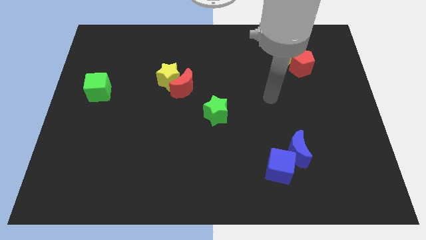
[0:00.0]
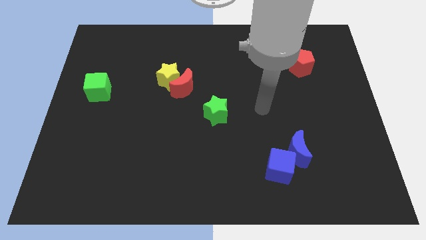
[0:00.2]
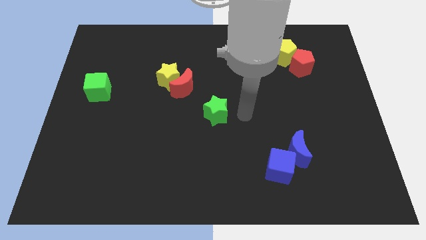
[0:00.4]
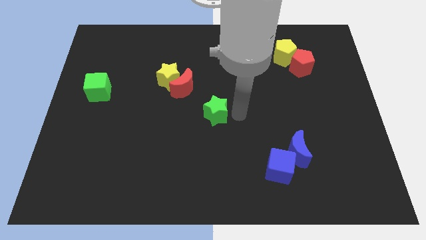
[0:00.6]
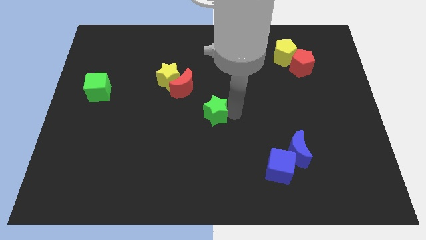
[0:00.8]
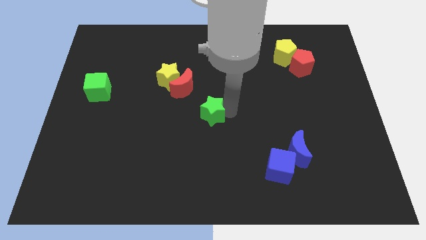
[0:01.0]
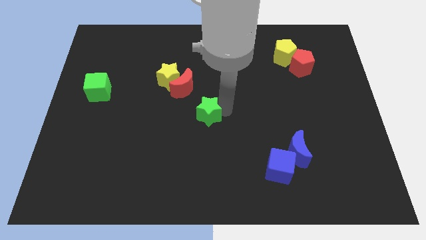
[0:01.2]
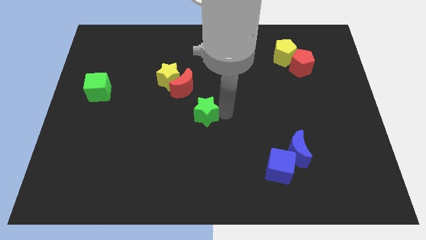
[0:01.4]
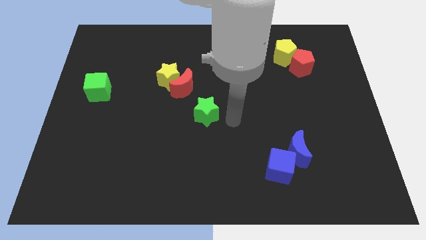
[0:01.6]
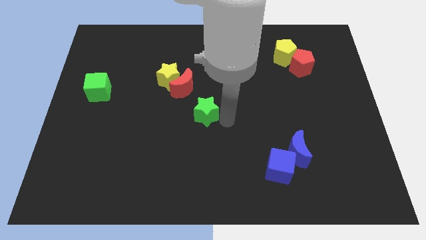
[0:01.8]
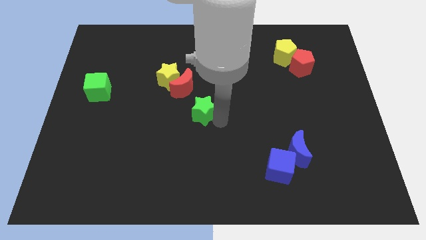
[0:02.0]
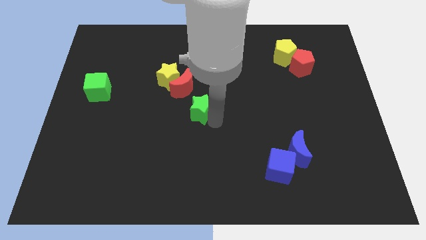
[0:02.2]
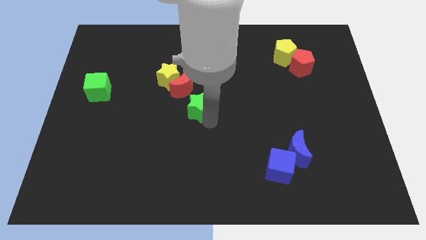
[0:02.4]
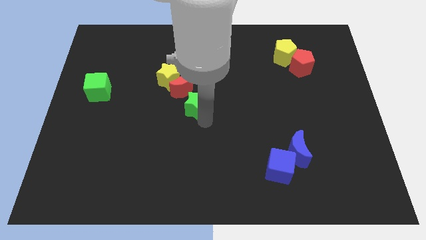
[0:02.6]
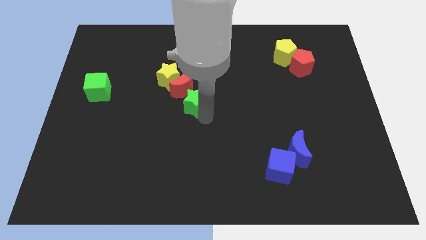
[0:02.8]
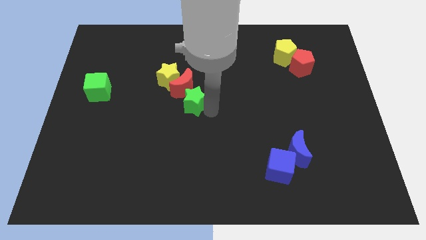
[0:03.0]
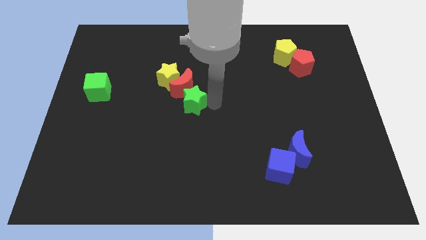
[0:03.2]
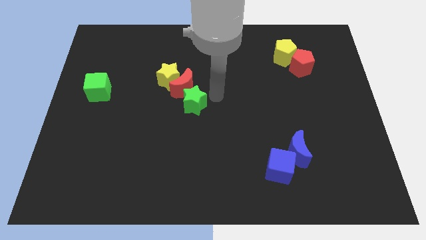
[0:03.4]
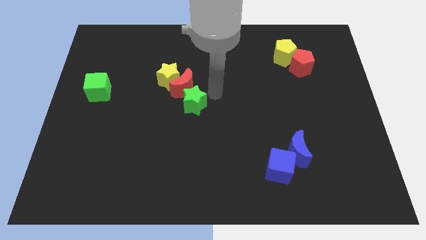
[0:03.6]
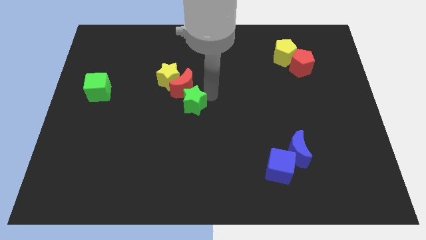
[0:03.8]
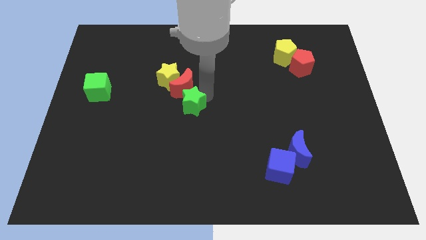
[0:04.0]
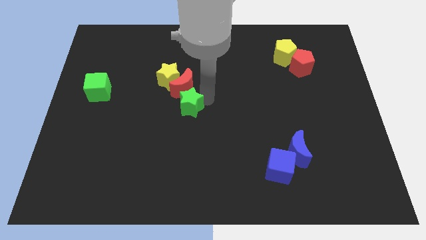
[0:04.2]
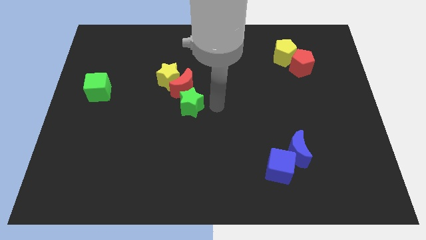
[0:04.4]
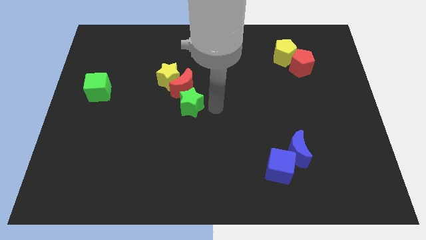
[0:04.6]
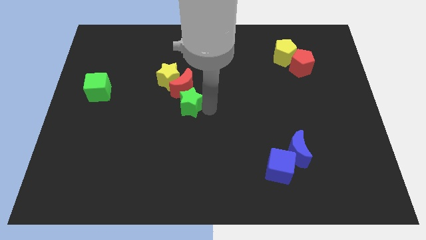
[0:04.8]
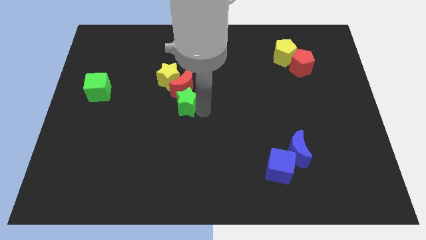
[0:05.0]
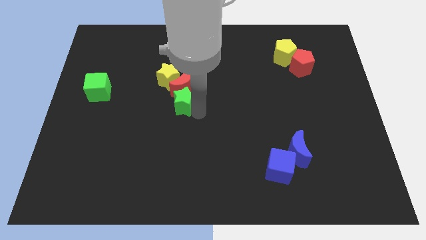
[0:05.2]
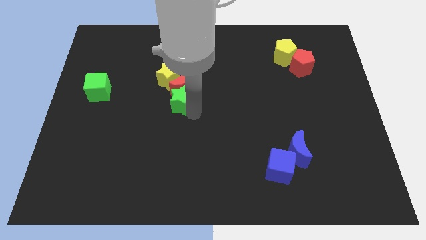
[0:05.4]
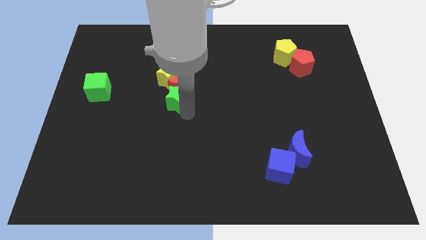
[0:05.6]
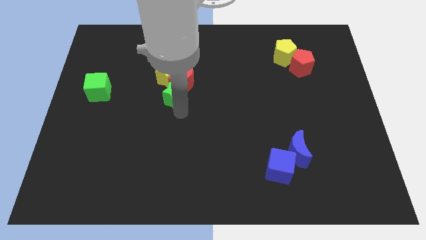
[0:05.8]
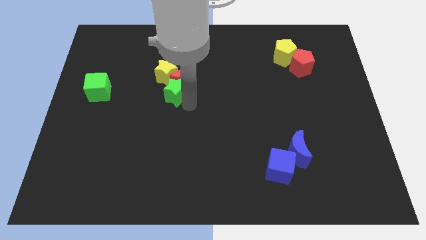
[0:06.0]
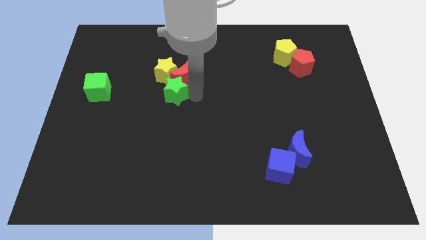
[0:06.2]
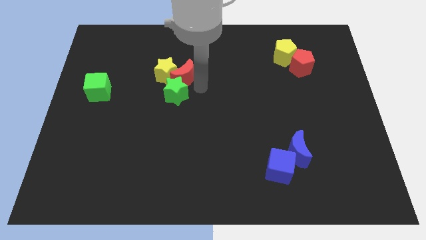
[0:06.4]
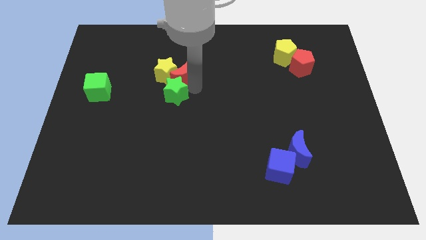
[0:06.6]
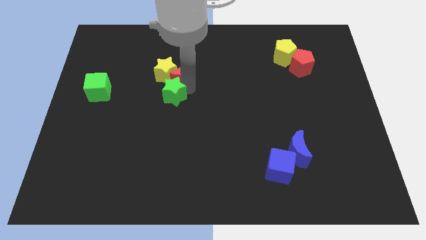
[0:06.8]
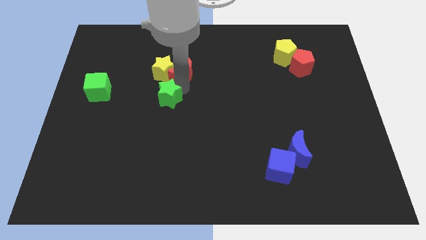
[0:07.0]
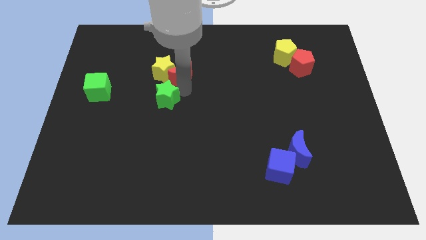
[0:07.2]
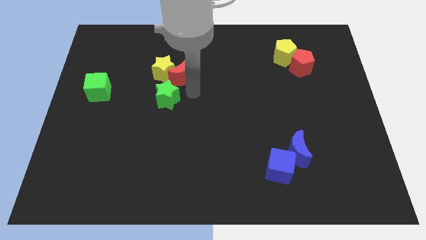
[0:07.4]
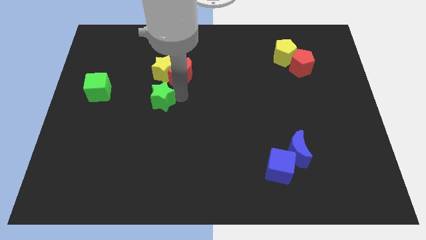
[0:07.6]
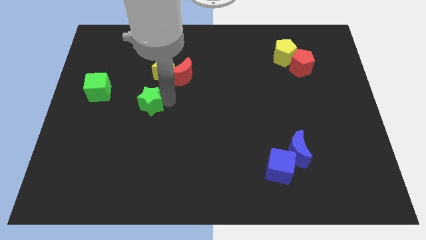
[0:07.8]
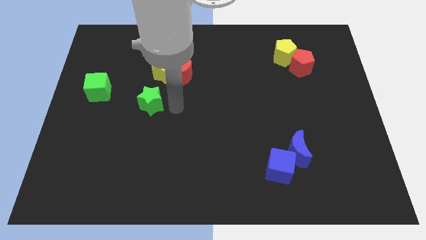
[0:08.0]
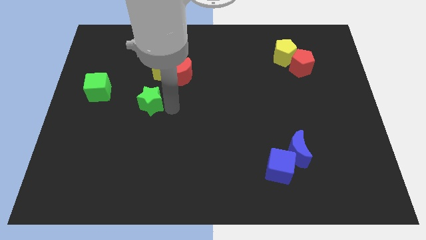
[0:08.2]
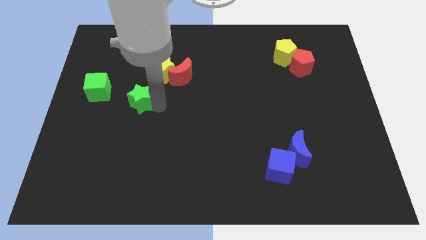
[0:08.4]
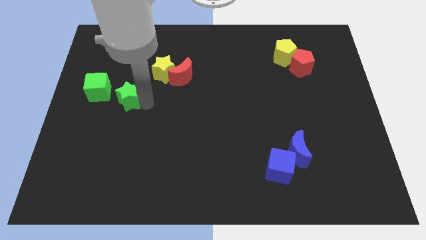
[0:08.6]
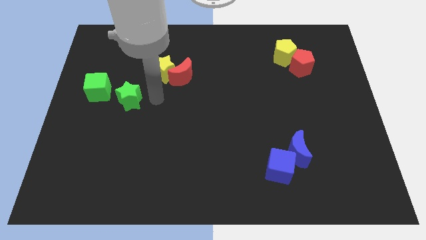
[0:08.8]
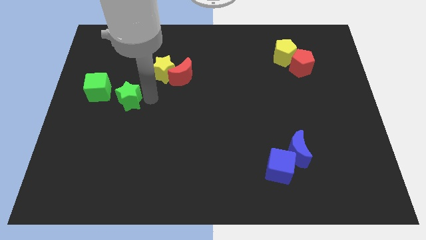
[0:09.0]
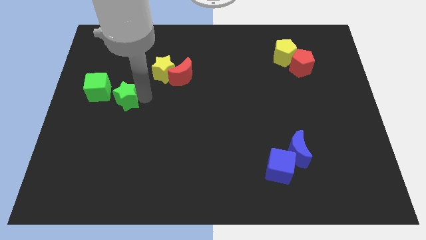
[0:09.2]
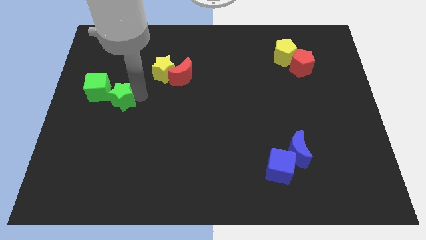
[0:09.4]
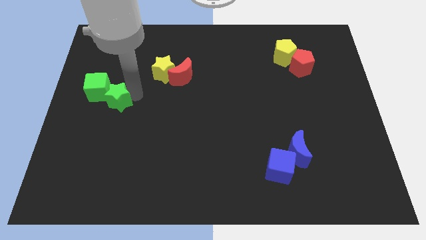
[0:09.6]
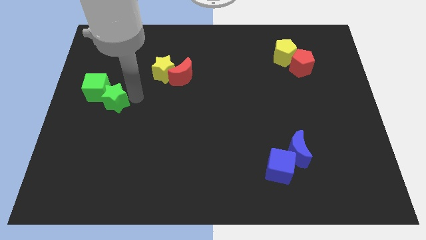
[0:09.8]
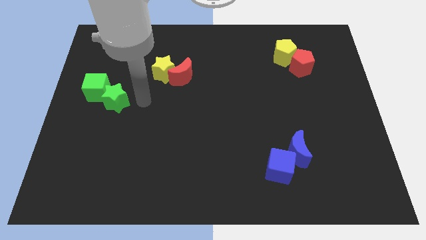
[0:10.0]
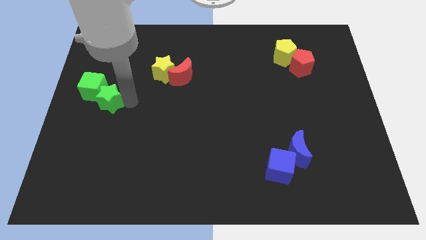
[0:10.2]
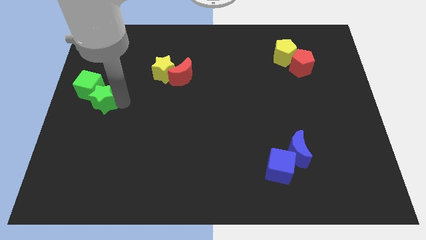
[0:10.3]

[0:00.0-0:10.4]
move the green star to the center left

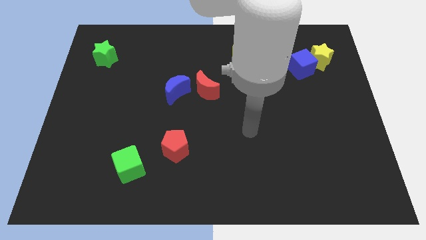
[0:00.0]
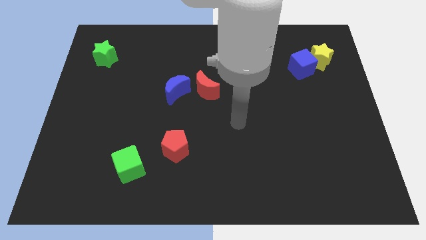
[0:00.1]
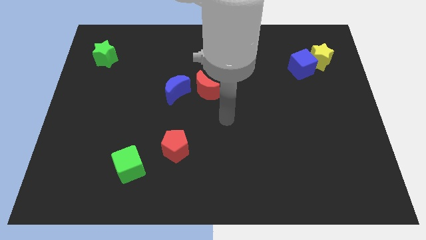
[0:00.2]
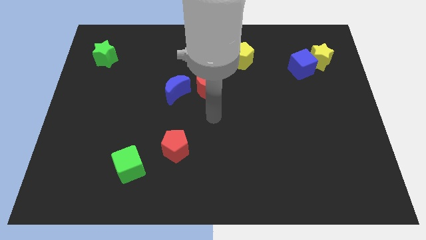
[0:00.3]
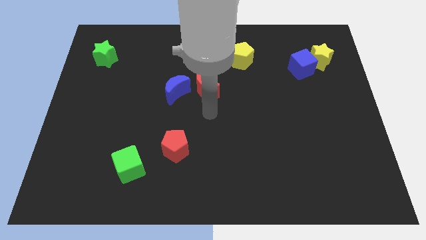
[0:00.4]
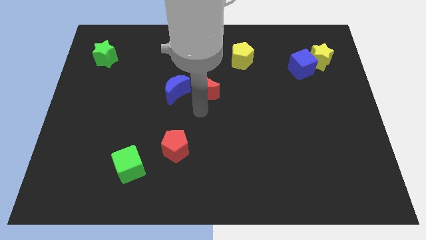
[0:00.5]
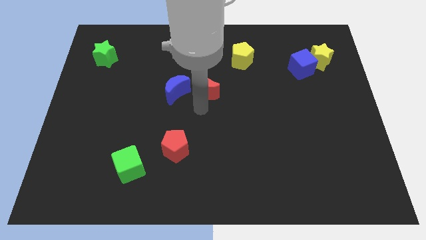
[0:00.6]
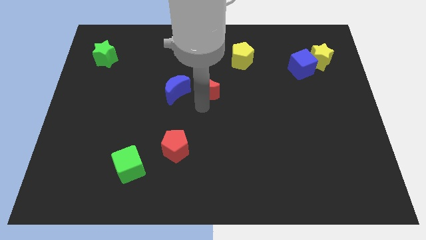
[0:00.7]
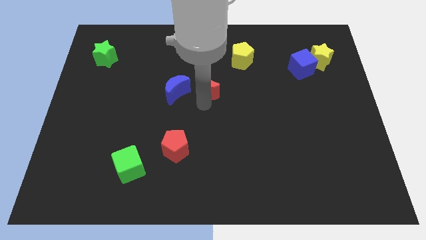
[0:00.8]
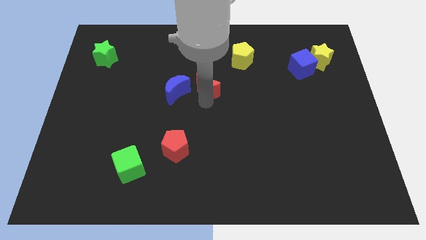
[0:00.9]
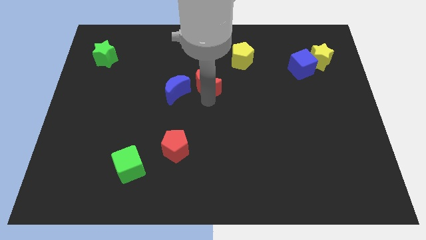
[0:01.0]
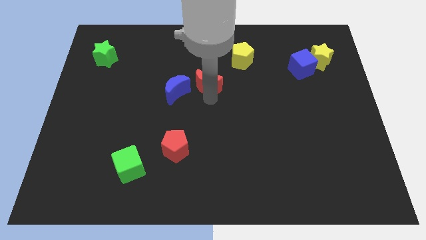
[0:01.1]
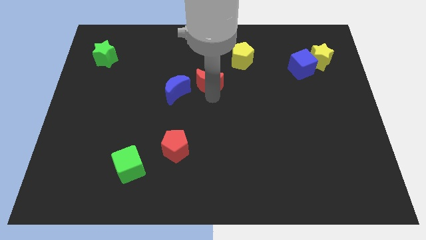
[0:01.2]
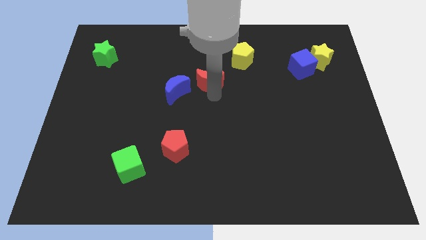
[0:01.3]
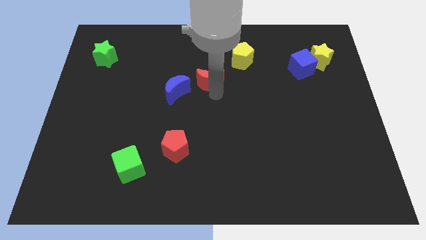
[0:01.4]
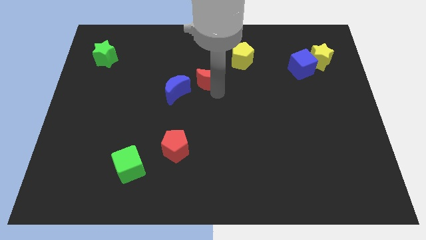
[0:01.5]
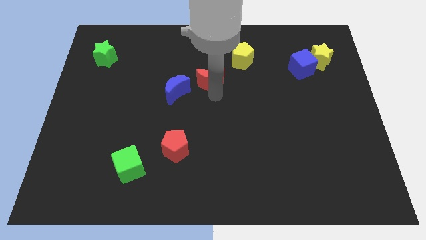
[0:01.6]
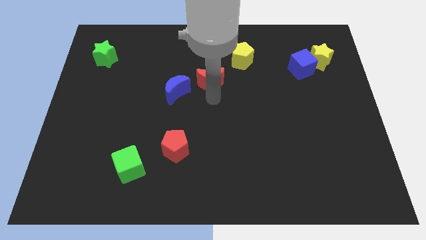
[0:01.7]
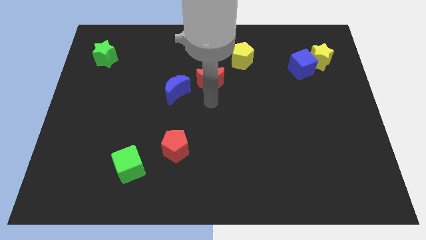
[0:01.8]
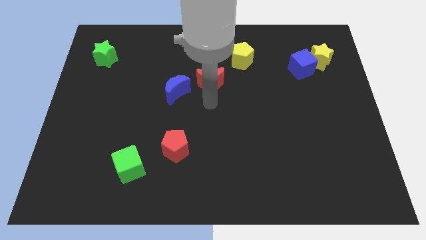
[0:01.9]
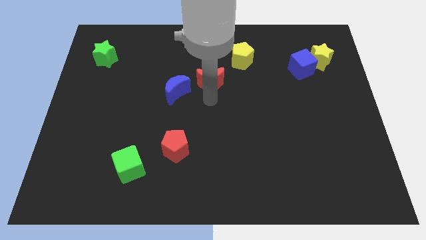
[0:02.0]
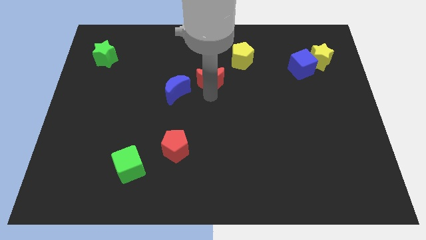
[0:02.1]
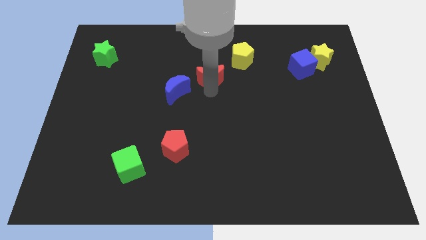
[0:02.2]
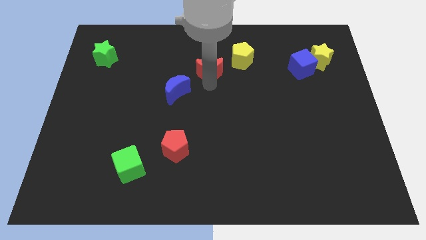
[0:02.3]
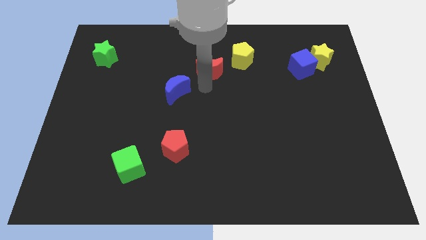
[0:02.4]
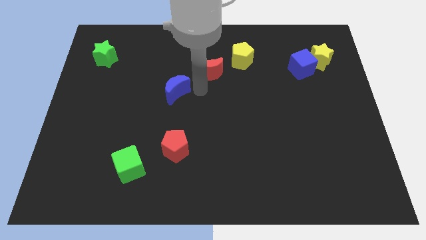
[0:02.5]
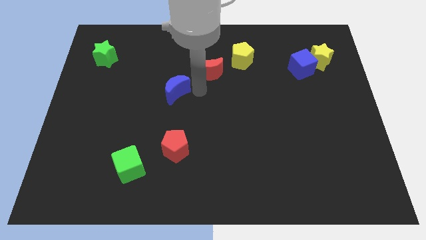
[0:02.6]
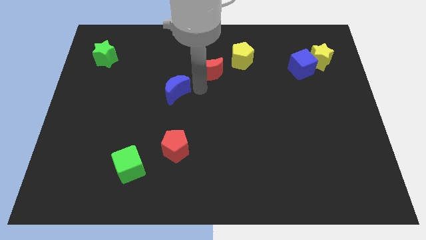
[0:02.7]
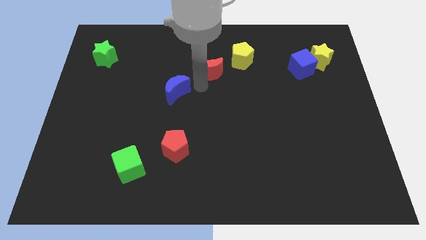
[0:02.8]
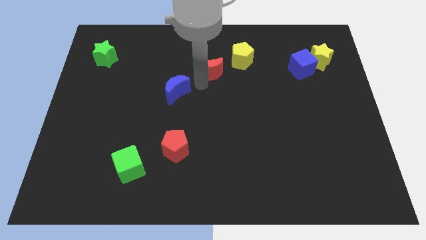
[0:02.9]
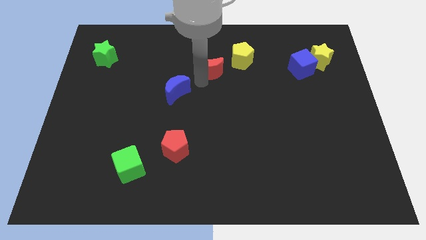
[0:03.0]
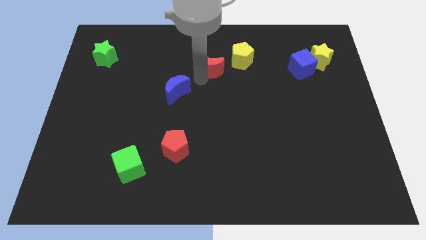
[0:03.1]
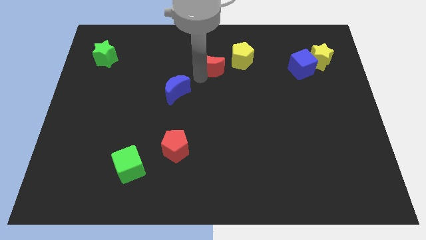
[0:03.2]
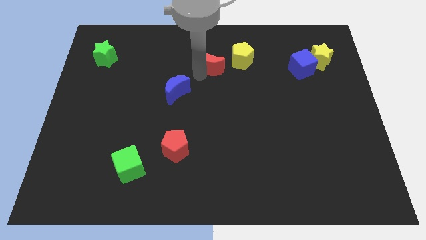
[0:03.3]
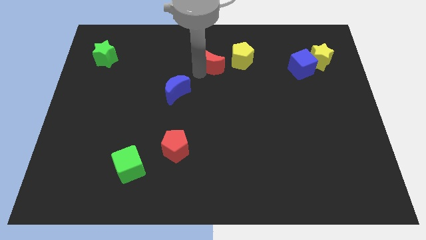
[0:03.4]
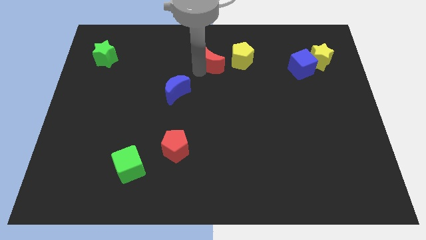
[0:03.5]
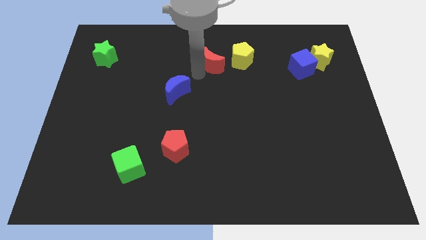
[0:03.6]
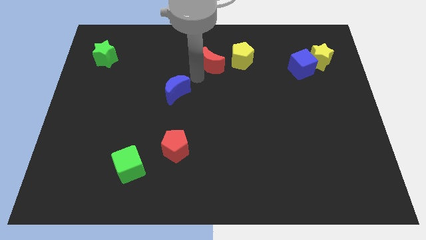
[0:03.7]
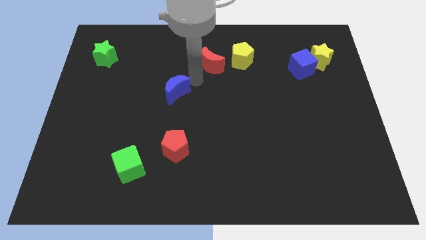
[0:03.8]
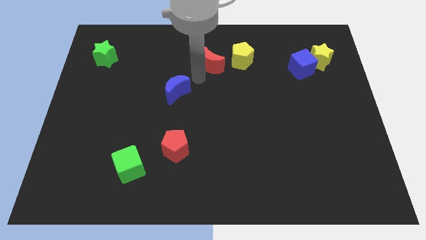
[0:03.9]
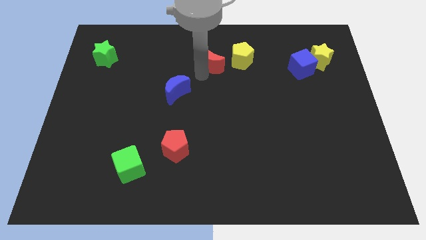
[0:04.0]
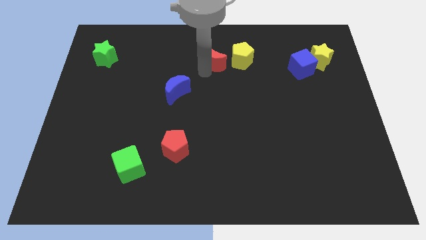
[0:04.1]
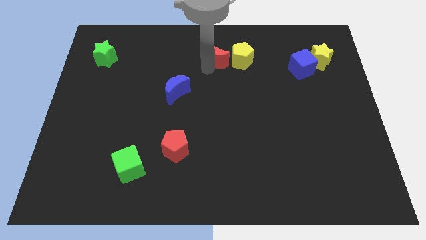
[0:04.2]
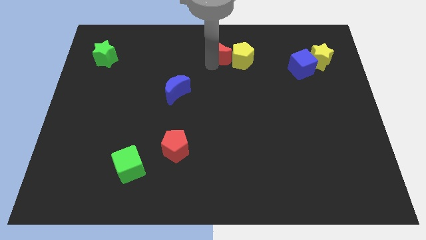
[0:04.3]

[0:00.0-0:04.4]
push the red moon to the top side
